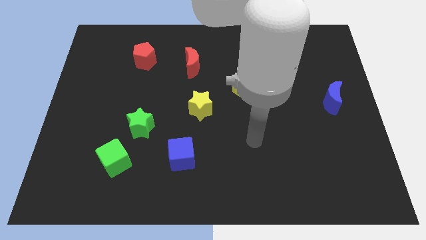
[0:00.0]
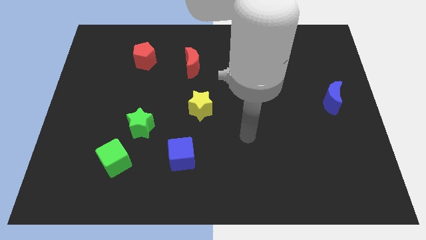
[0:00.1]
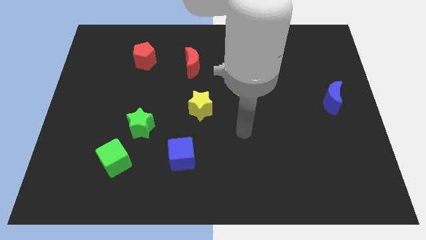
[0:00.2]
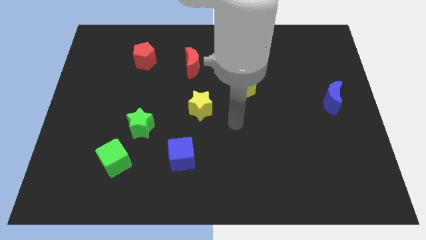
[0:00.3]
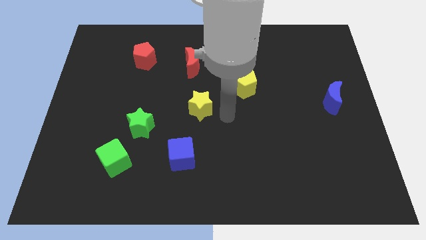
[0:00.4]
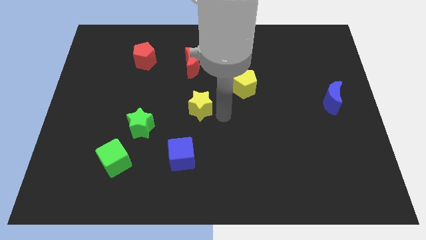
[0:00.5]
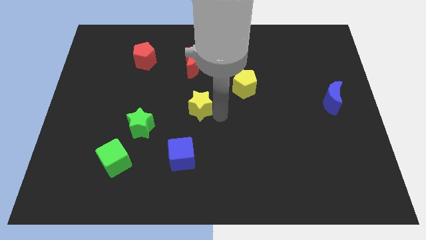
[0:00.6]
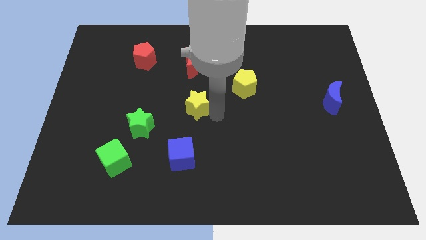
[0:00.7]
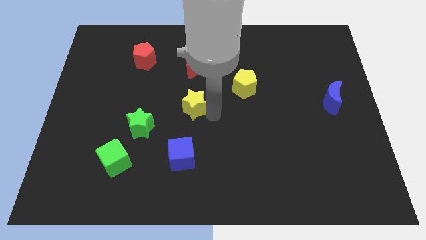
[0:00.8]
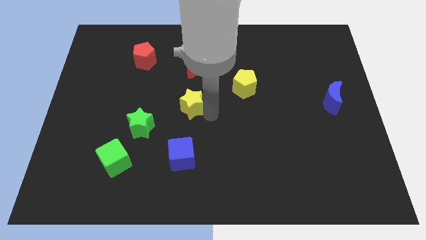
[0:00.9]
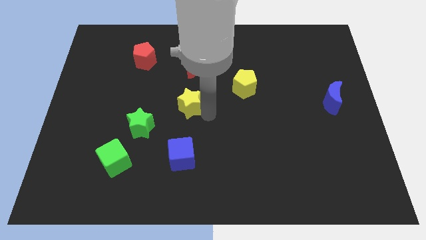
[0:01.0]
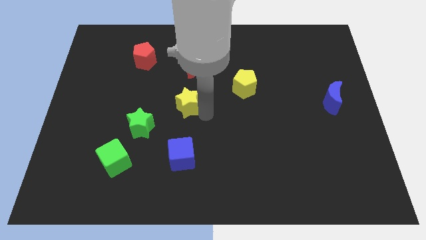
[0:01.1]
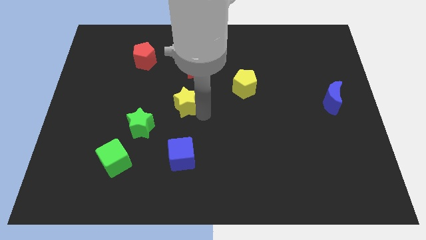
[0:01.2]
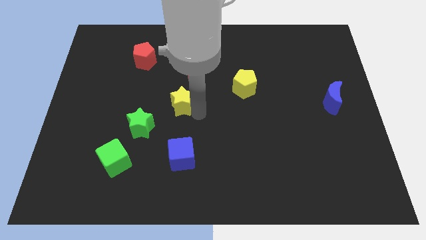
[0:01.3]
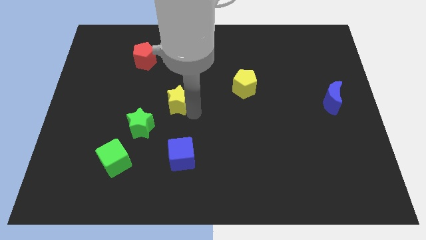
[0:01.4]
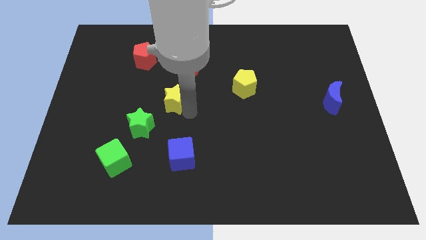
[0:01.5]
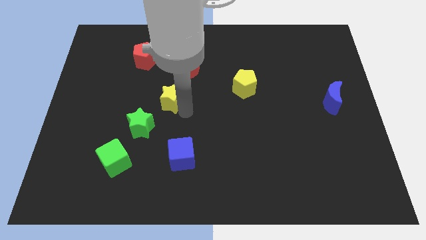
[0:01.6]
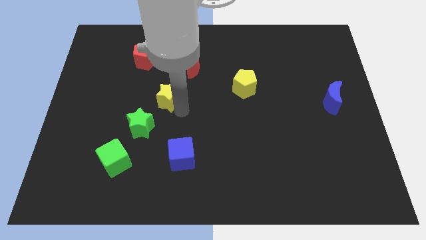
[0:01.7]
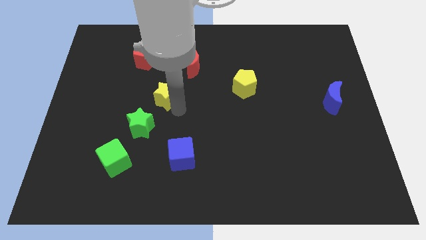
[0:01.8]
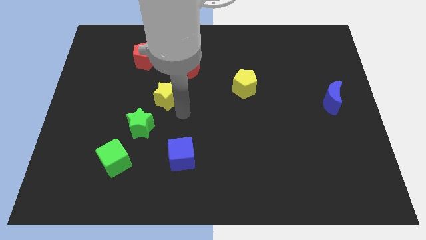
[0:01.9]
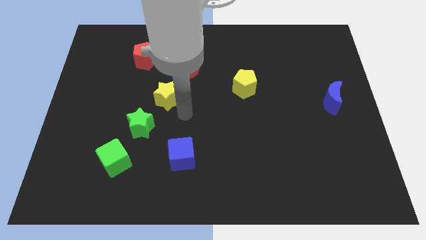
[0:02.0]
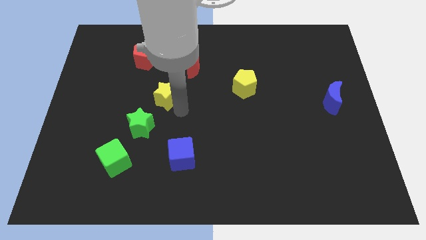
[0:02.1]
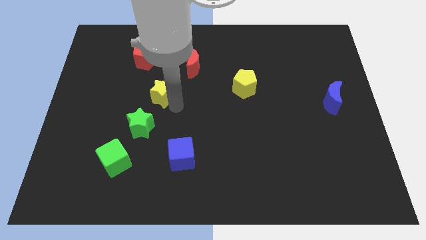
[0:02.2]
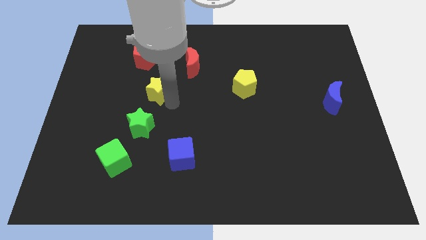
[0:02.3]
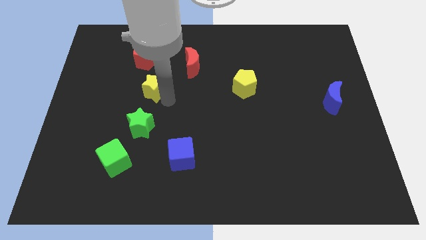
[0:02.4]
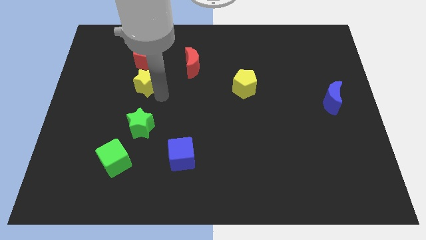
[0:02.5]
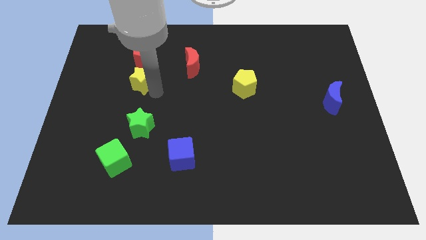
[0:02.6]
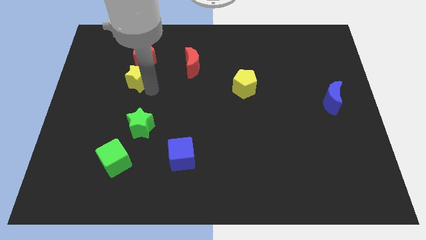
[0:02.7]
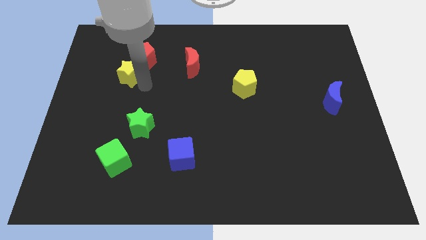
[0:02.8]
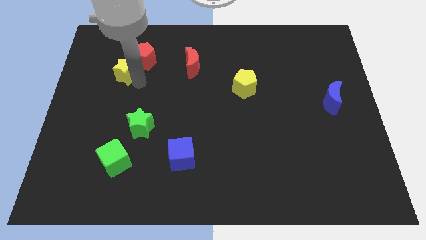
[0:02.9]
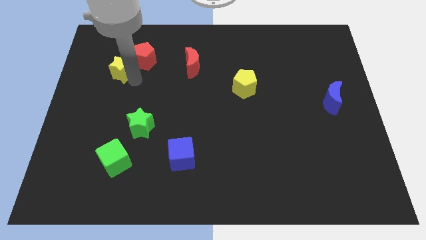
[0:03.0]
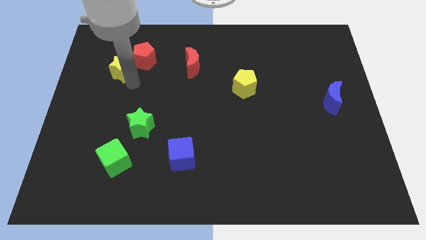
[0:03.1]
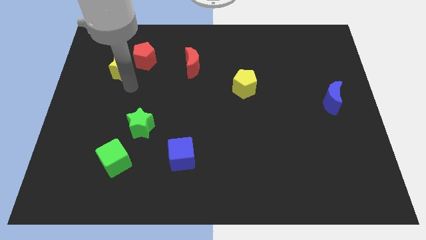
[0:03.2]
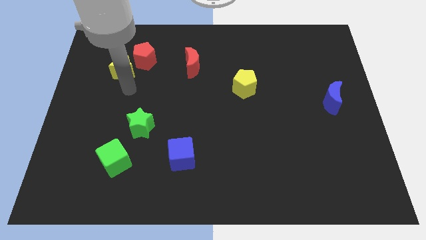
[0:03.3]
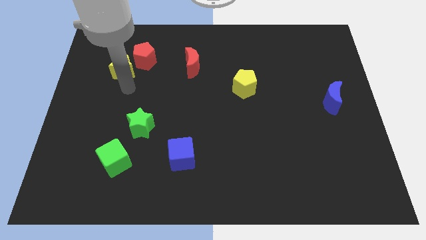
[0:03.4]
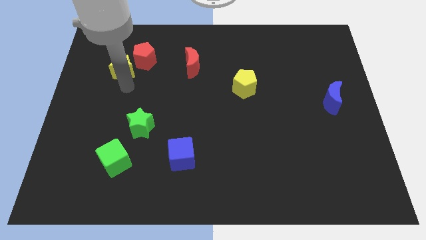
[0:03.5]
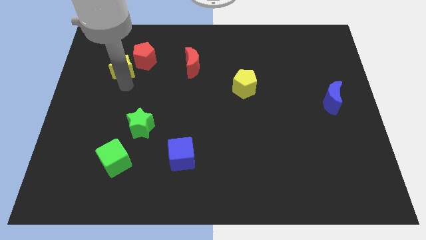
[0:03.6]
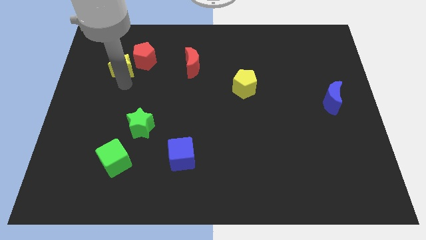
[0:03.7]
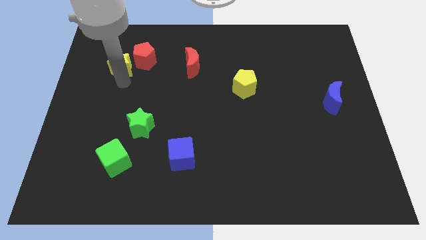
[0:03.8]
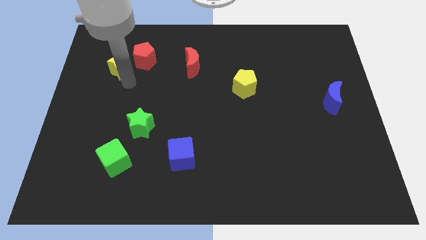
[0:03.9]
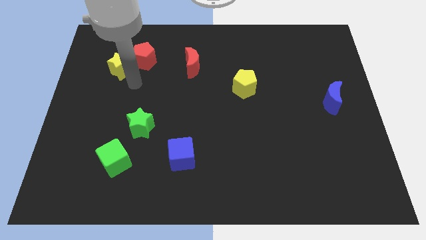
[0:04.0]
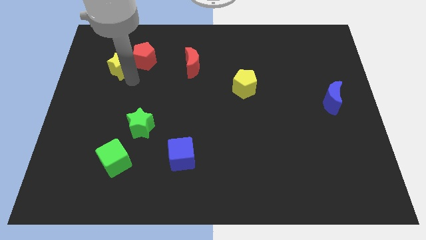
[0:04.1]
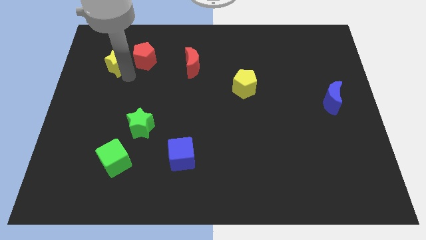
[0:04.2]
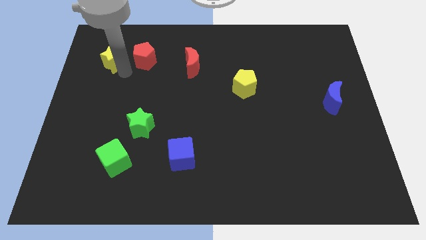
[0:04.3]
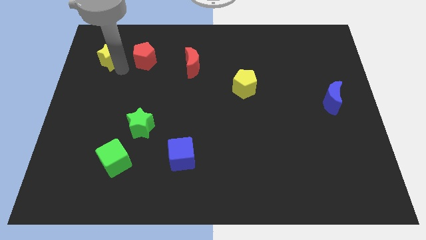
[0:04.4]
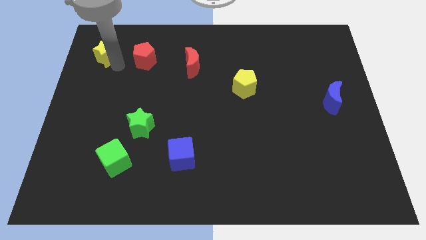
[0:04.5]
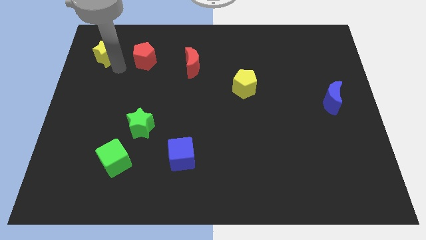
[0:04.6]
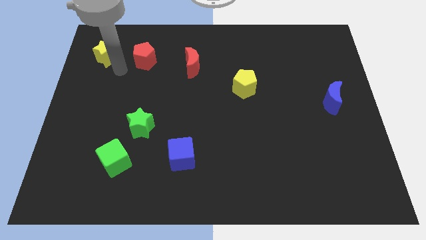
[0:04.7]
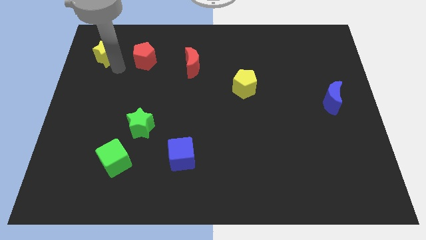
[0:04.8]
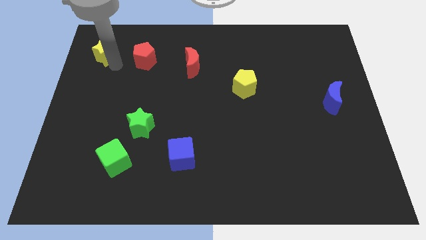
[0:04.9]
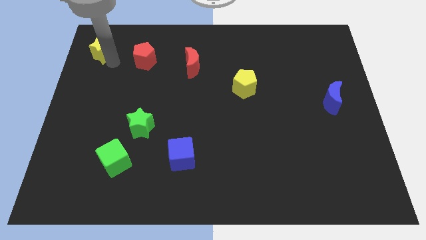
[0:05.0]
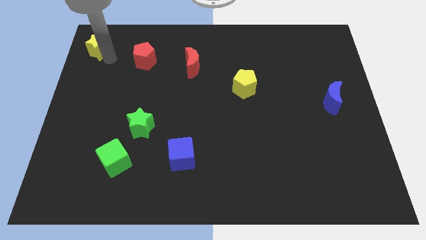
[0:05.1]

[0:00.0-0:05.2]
move the yellow star to the upper left corner

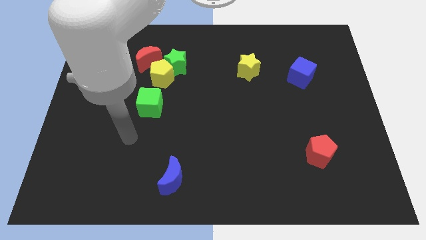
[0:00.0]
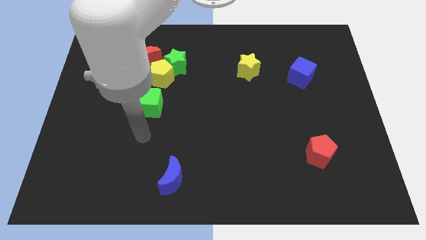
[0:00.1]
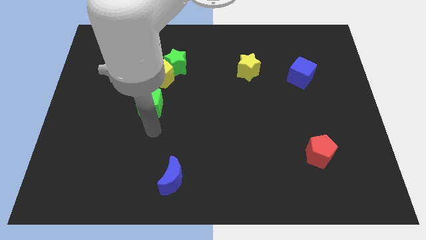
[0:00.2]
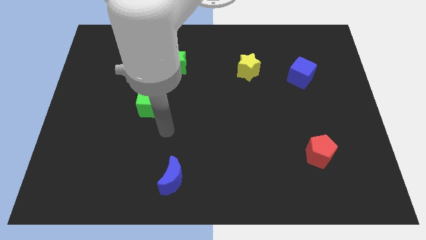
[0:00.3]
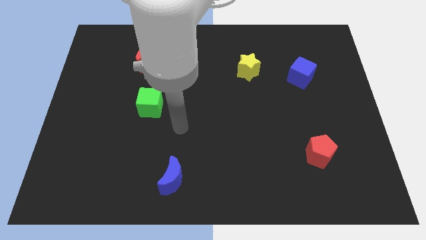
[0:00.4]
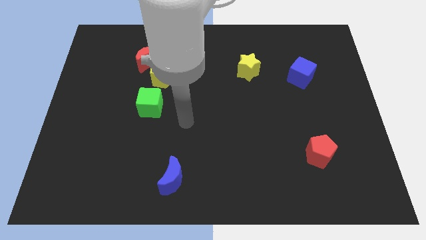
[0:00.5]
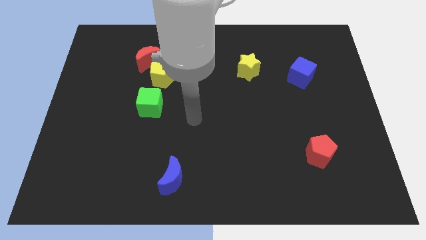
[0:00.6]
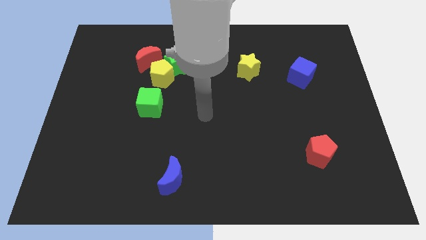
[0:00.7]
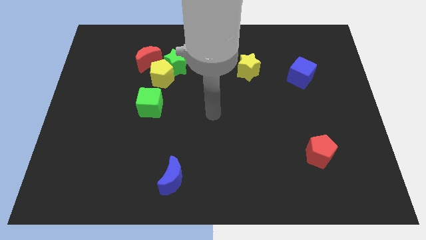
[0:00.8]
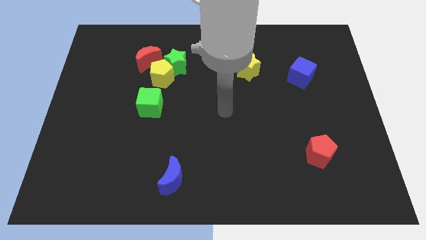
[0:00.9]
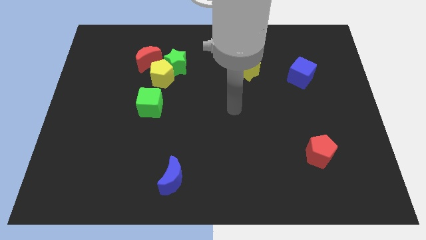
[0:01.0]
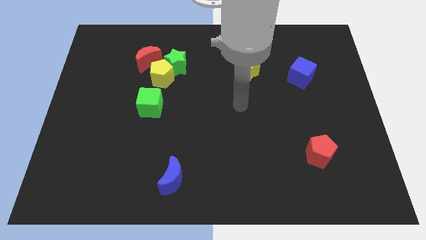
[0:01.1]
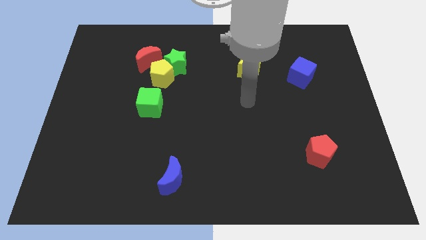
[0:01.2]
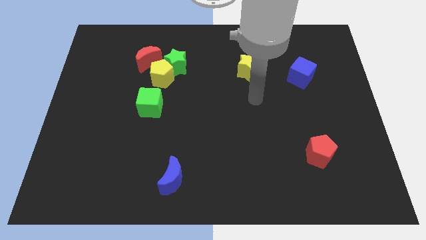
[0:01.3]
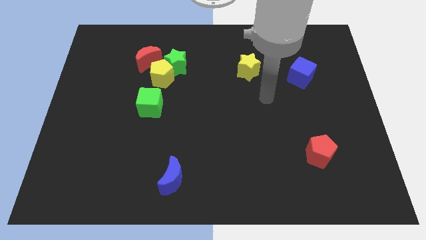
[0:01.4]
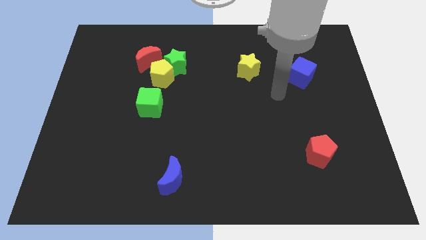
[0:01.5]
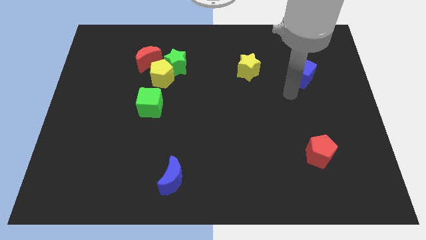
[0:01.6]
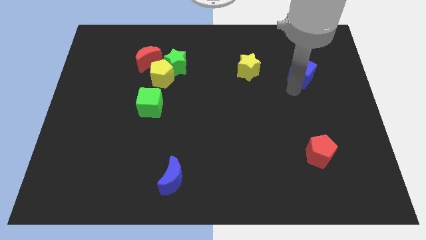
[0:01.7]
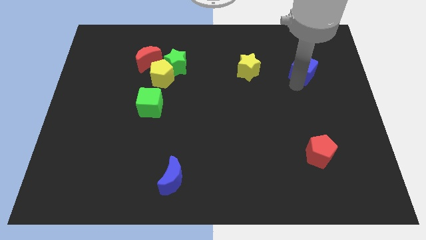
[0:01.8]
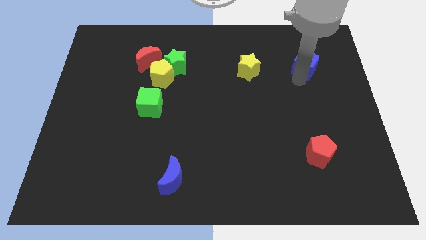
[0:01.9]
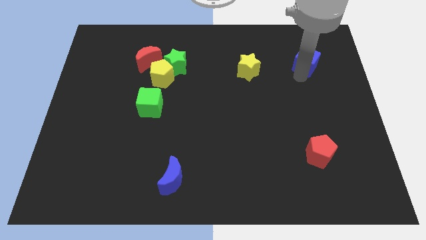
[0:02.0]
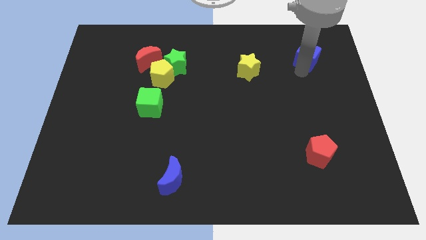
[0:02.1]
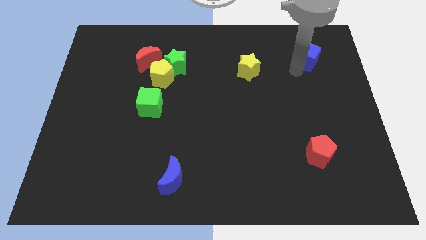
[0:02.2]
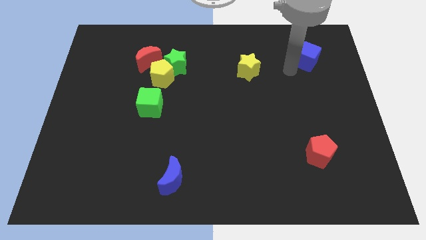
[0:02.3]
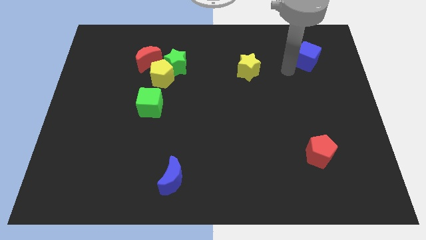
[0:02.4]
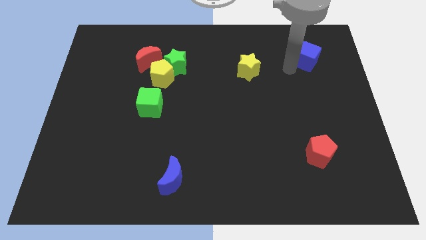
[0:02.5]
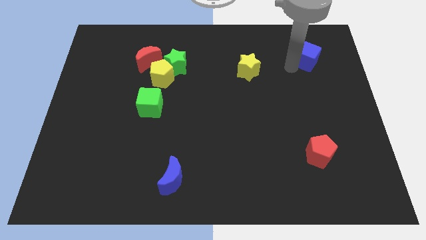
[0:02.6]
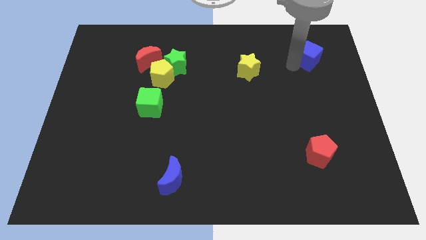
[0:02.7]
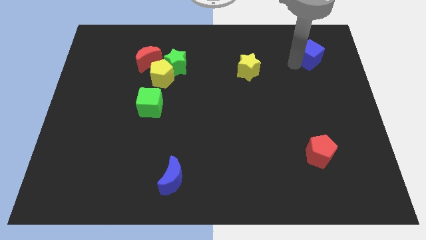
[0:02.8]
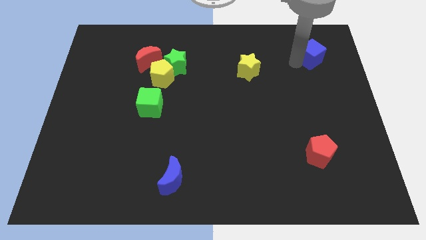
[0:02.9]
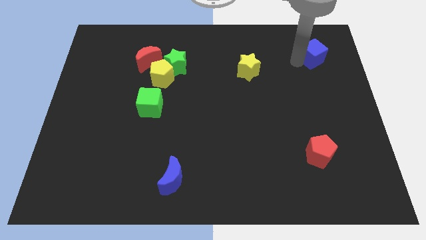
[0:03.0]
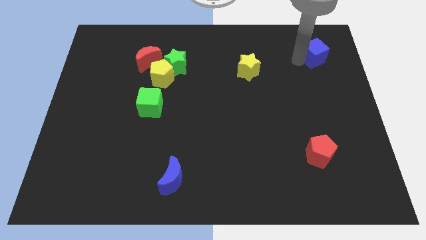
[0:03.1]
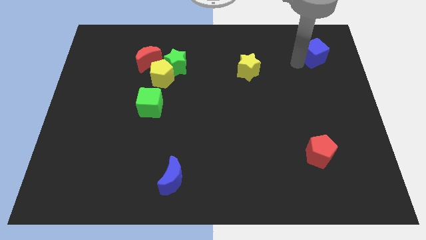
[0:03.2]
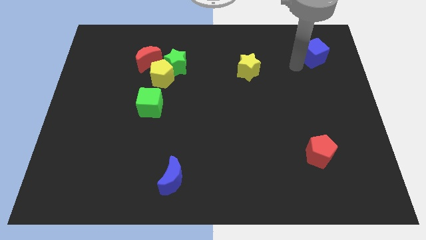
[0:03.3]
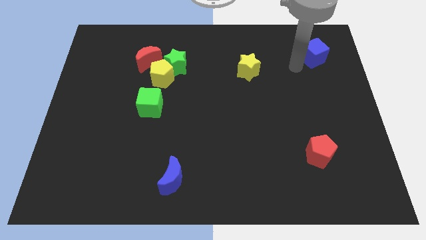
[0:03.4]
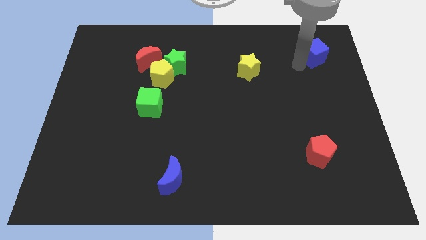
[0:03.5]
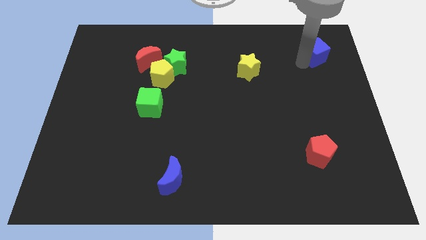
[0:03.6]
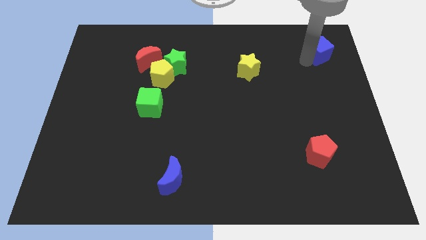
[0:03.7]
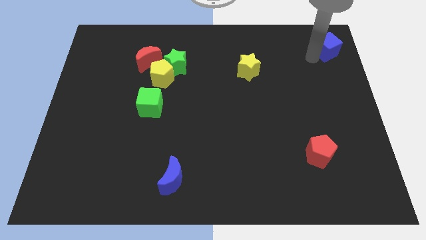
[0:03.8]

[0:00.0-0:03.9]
put the blue cube to the upper right corner
